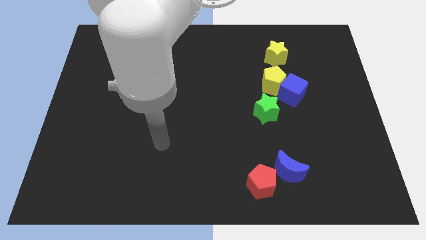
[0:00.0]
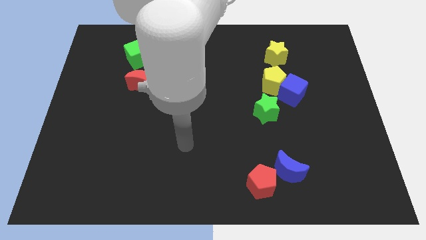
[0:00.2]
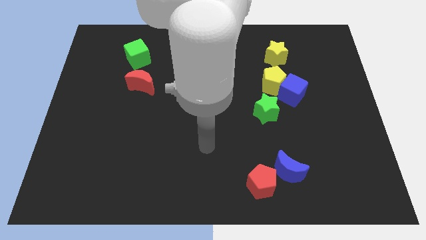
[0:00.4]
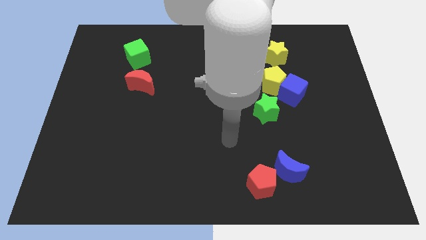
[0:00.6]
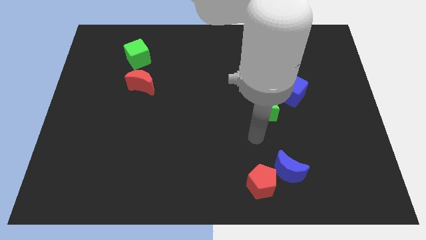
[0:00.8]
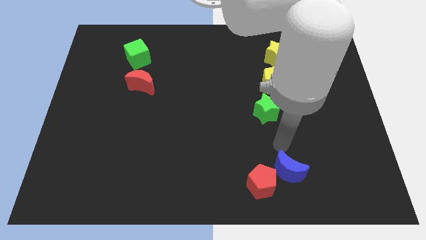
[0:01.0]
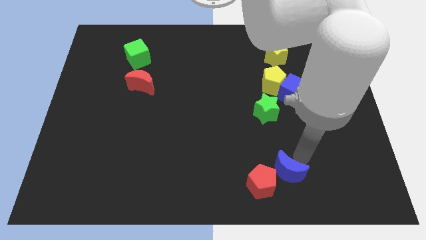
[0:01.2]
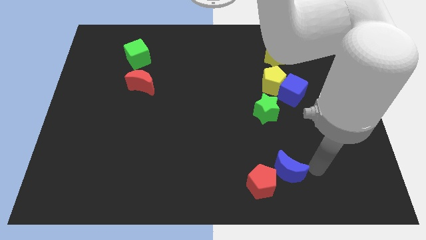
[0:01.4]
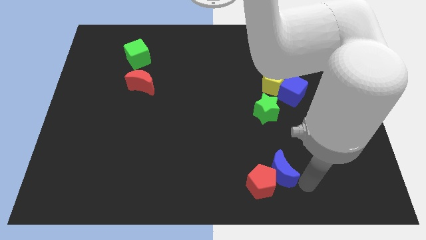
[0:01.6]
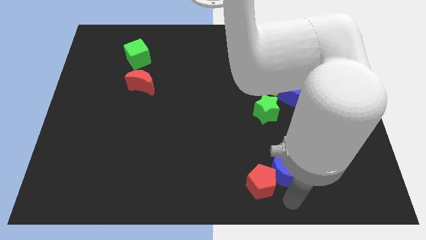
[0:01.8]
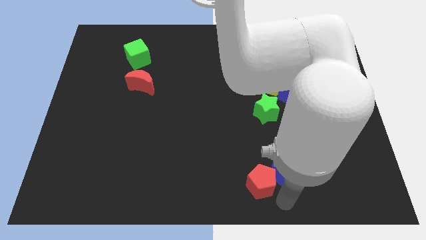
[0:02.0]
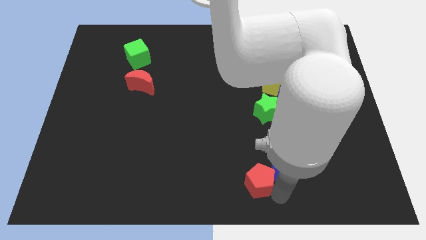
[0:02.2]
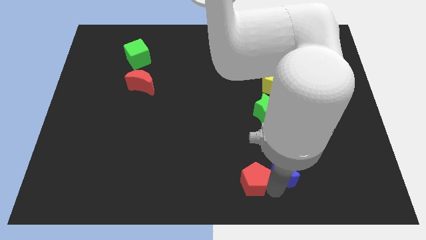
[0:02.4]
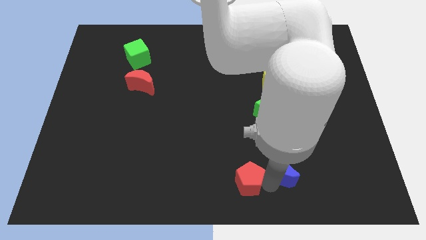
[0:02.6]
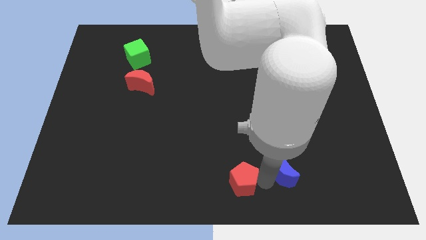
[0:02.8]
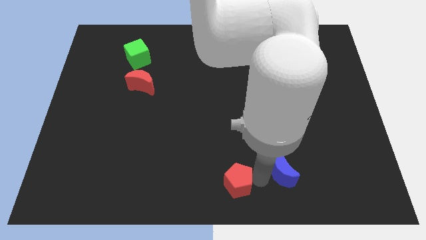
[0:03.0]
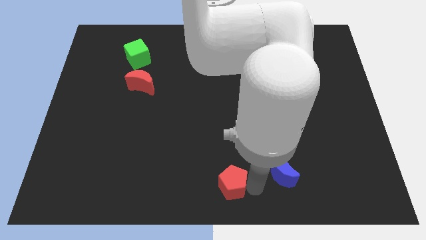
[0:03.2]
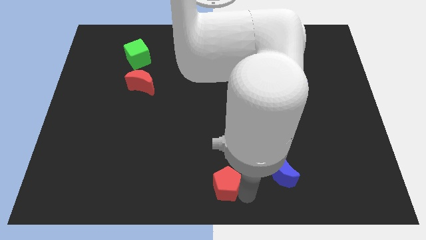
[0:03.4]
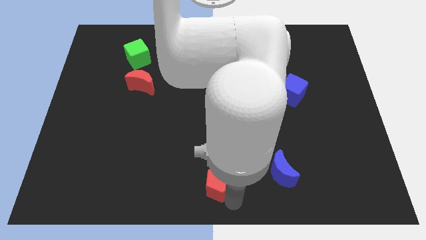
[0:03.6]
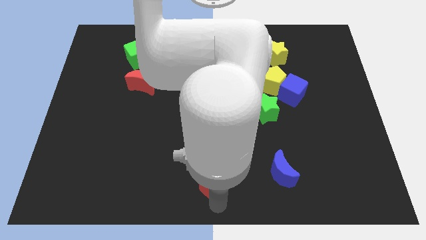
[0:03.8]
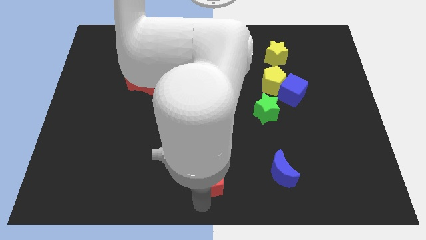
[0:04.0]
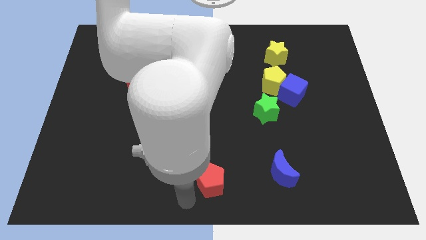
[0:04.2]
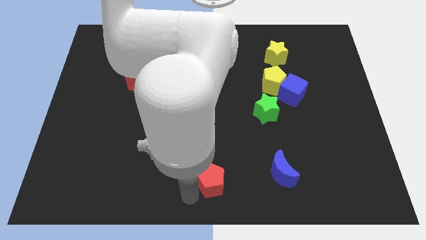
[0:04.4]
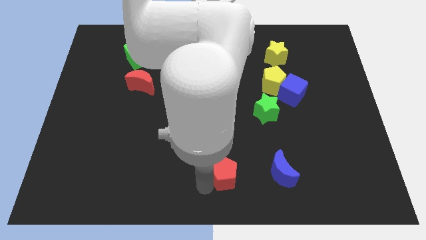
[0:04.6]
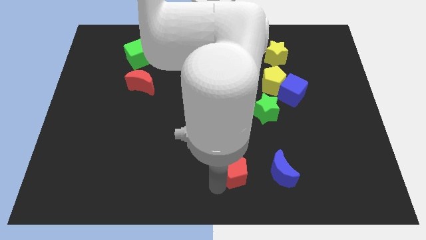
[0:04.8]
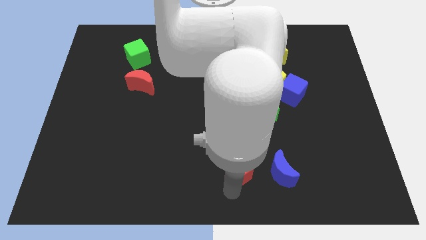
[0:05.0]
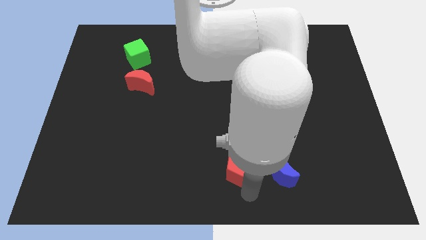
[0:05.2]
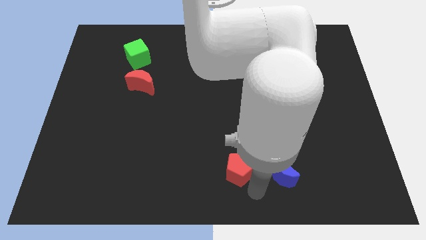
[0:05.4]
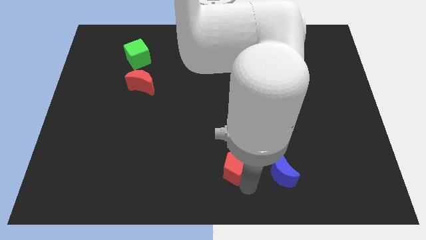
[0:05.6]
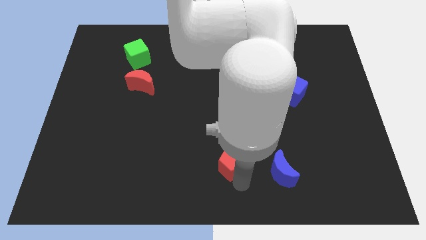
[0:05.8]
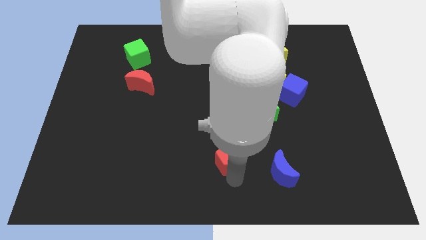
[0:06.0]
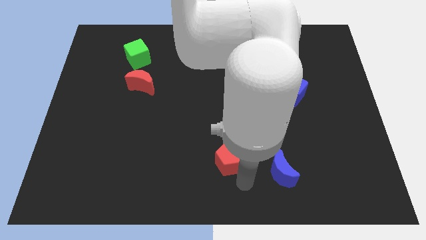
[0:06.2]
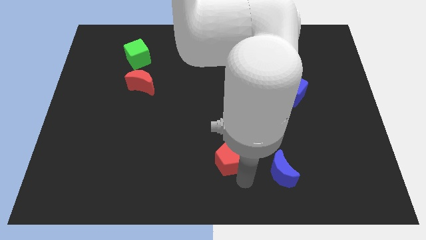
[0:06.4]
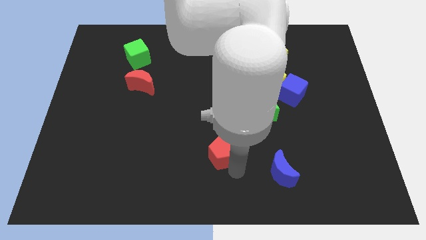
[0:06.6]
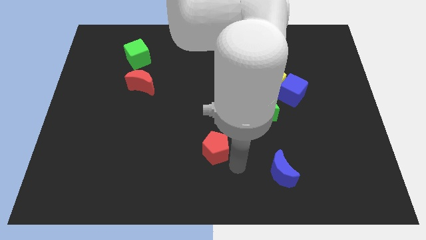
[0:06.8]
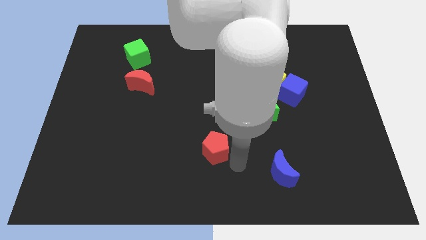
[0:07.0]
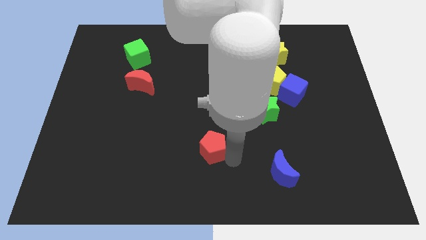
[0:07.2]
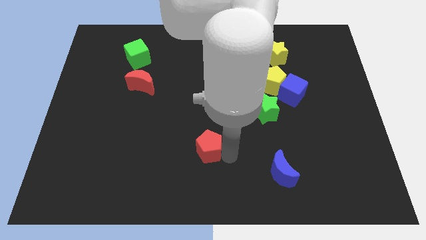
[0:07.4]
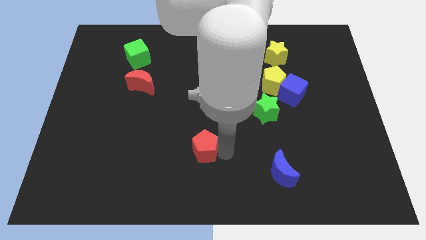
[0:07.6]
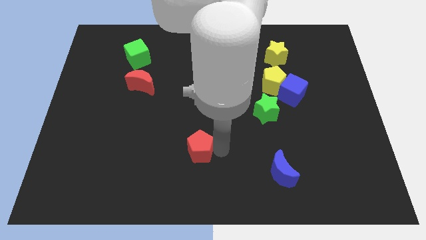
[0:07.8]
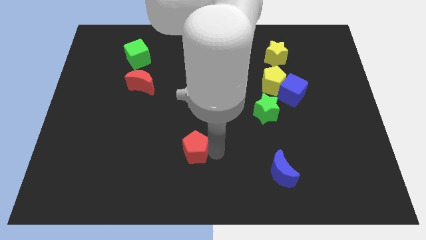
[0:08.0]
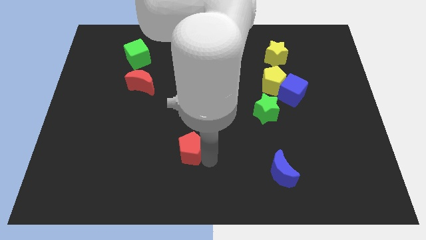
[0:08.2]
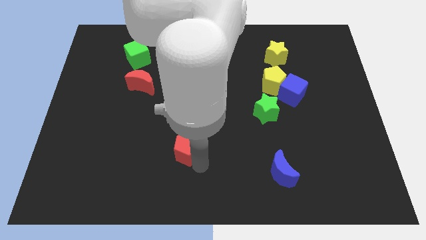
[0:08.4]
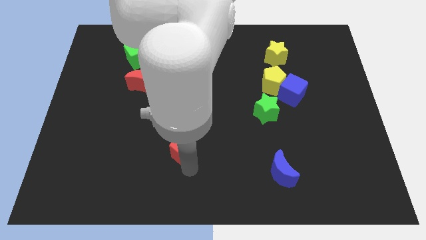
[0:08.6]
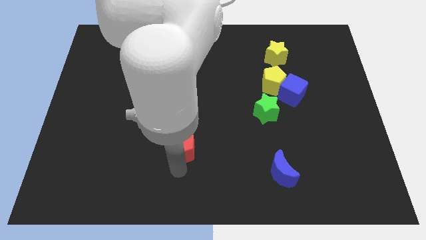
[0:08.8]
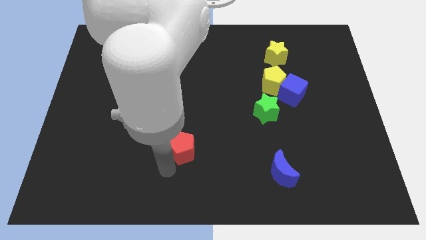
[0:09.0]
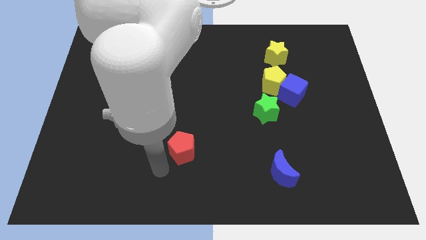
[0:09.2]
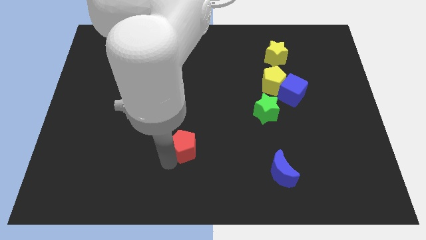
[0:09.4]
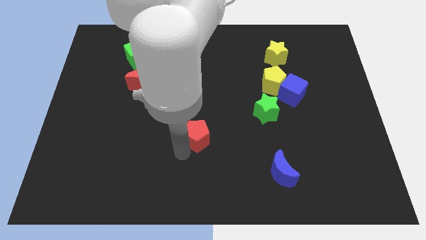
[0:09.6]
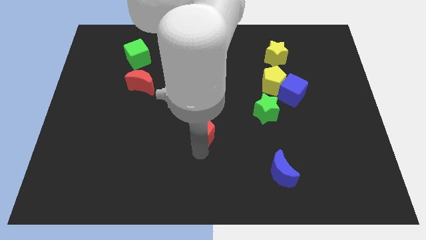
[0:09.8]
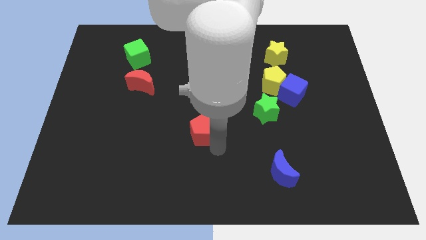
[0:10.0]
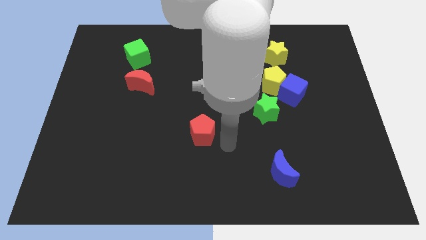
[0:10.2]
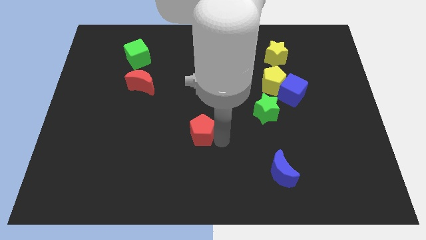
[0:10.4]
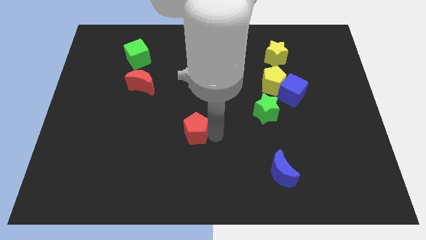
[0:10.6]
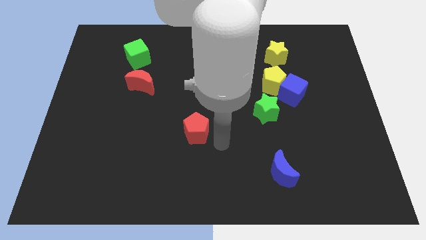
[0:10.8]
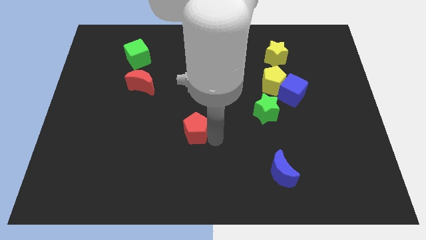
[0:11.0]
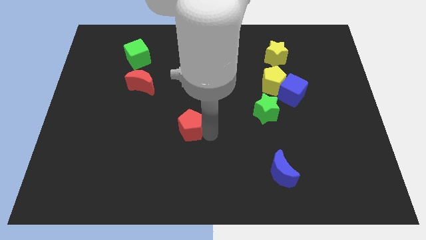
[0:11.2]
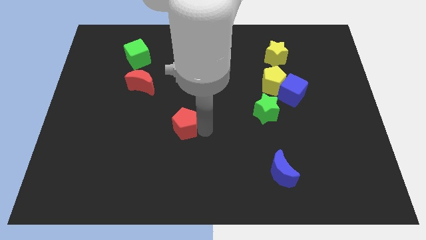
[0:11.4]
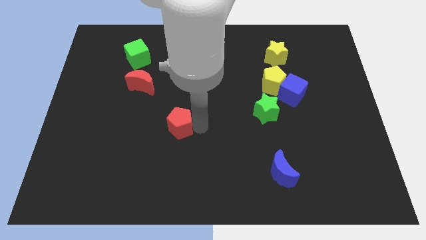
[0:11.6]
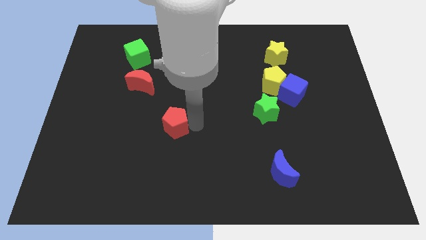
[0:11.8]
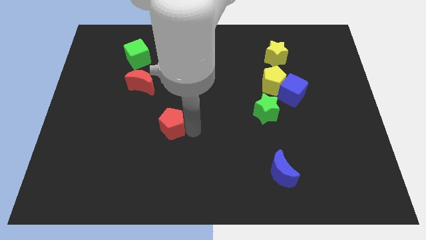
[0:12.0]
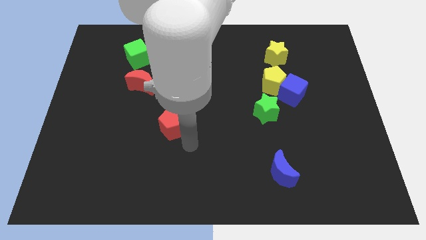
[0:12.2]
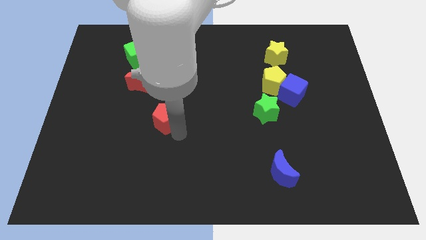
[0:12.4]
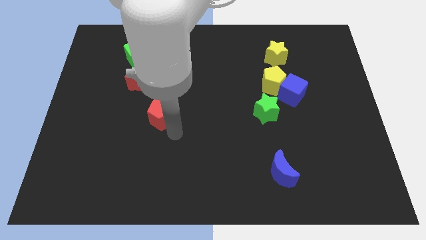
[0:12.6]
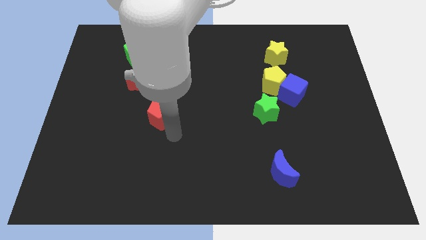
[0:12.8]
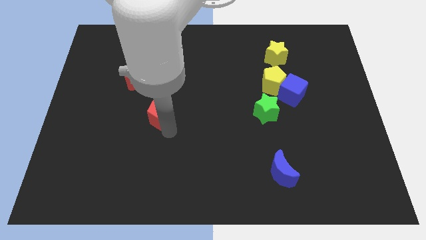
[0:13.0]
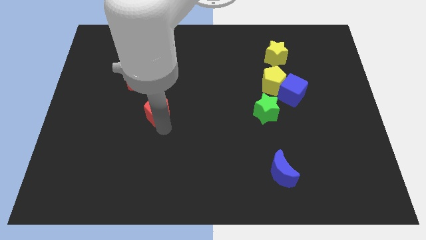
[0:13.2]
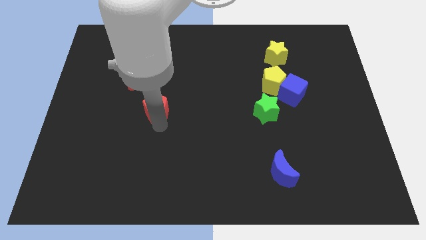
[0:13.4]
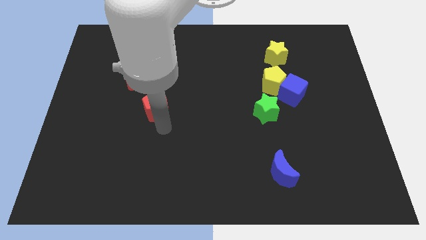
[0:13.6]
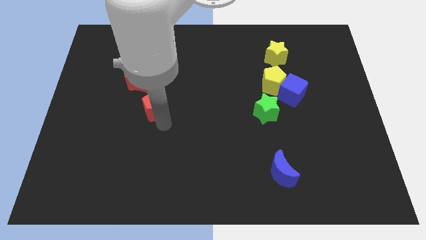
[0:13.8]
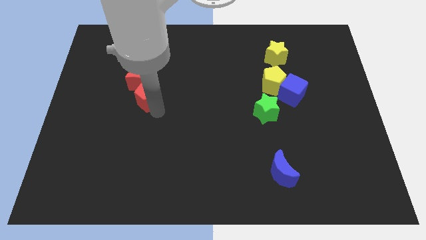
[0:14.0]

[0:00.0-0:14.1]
move the red pentagon towards the red moon

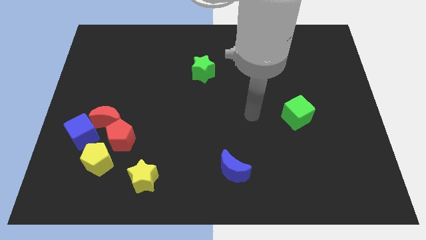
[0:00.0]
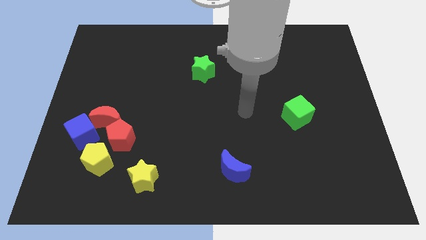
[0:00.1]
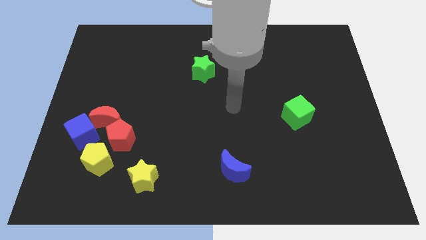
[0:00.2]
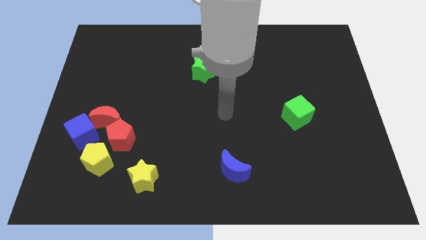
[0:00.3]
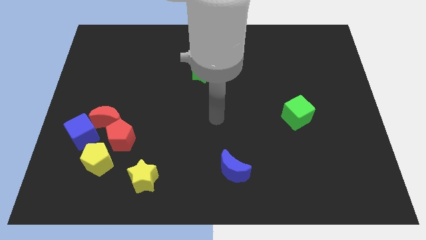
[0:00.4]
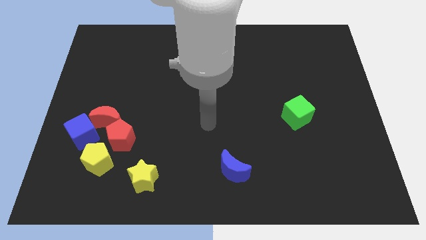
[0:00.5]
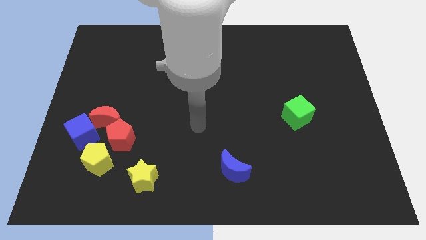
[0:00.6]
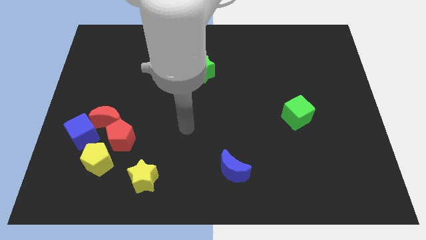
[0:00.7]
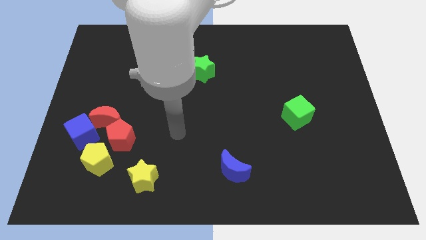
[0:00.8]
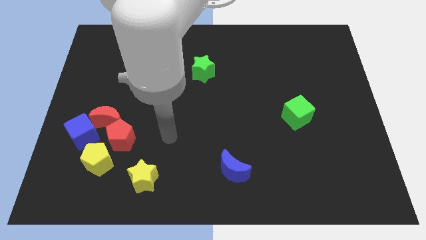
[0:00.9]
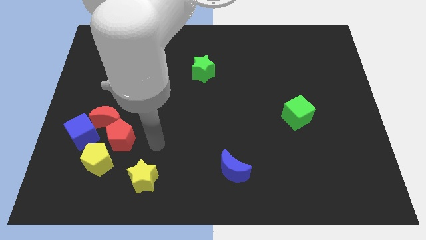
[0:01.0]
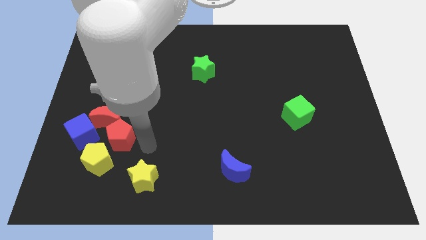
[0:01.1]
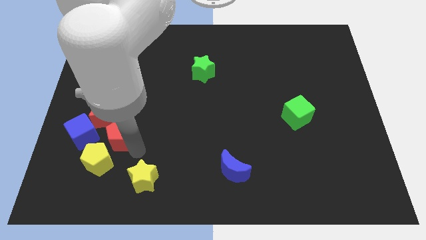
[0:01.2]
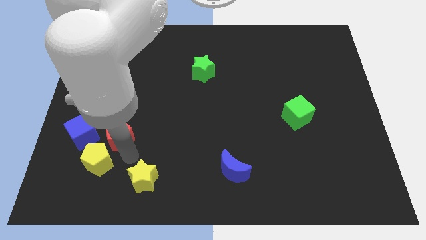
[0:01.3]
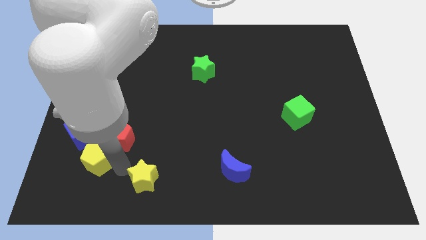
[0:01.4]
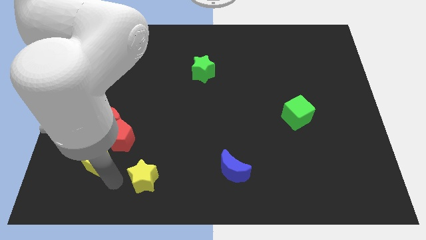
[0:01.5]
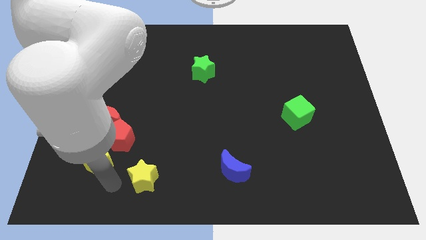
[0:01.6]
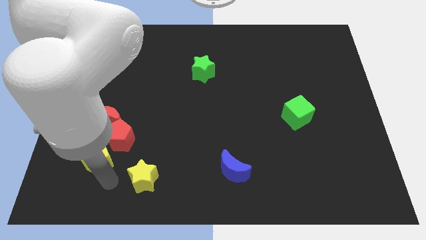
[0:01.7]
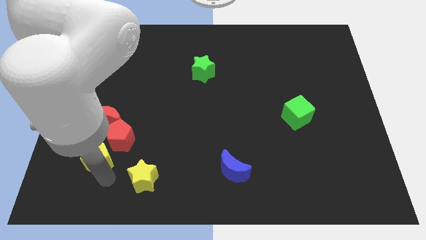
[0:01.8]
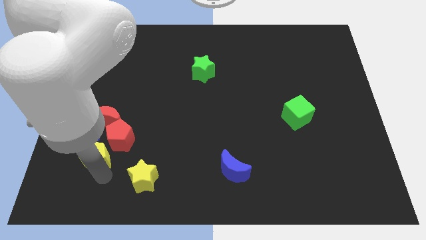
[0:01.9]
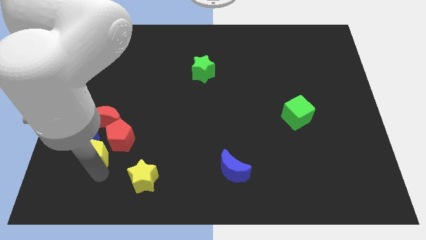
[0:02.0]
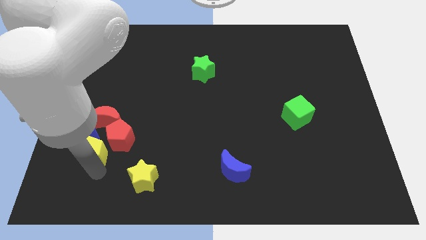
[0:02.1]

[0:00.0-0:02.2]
push the yellow pentagon to the blue cube
